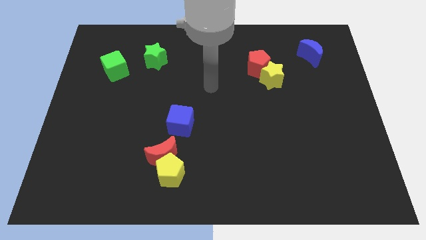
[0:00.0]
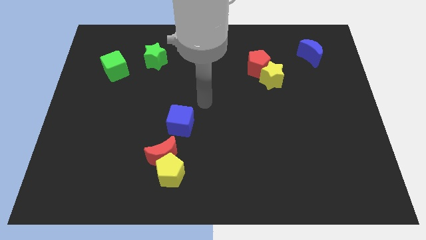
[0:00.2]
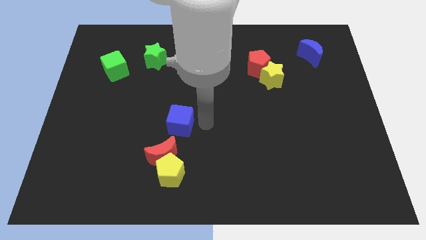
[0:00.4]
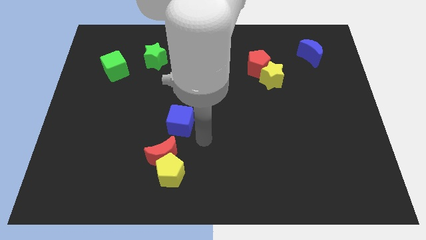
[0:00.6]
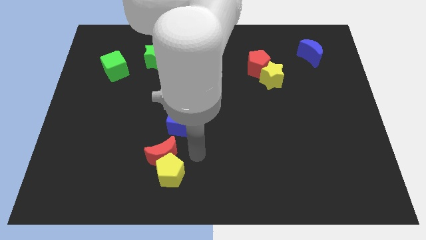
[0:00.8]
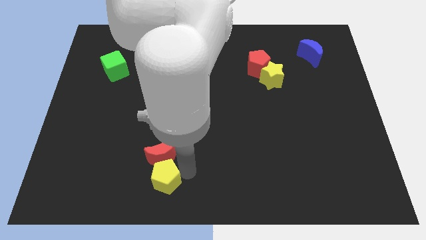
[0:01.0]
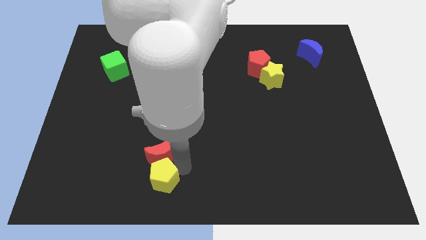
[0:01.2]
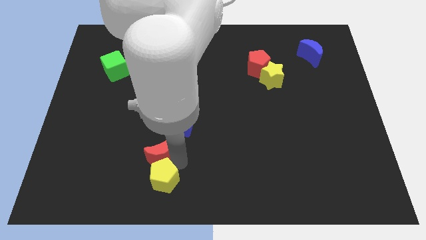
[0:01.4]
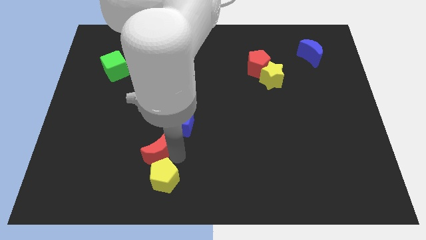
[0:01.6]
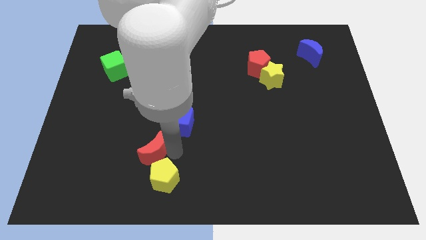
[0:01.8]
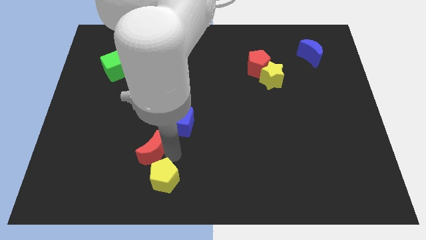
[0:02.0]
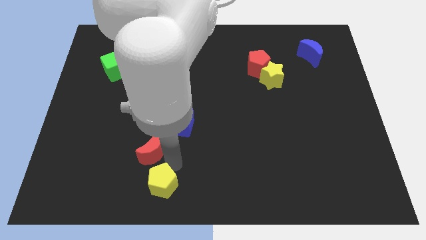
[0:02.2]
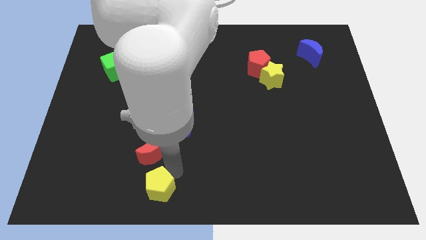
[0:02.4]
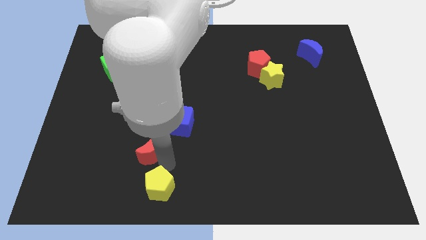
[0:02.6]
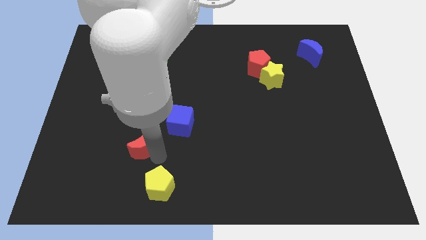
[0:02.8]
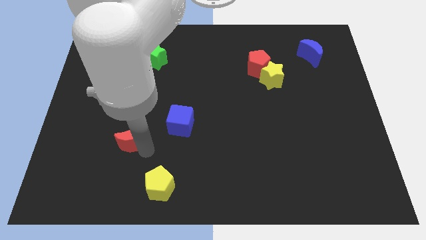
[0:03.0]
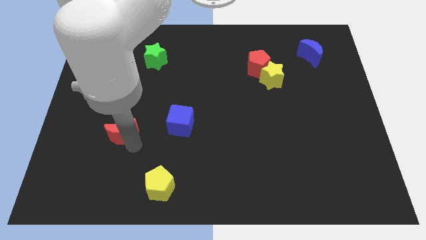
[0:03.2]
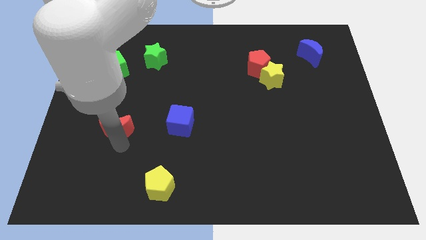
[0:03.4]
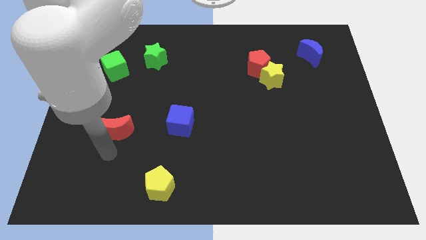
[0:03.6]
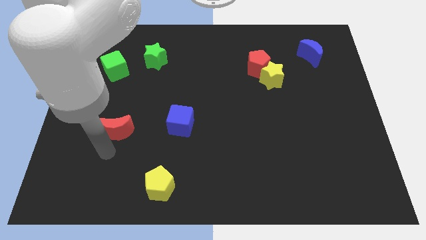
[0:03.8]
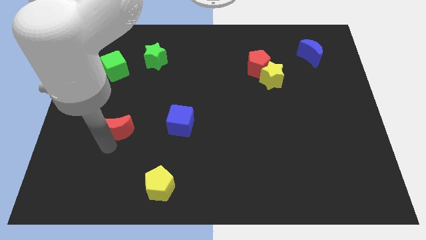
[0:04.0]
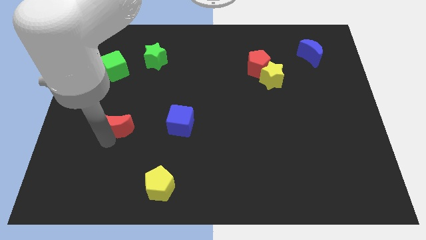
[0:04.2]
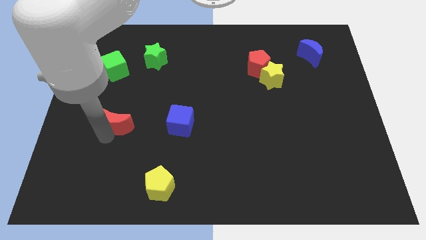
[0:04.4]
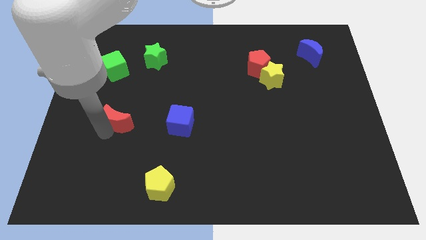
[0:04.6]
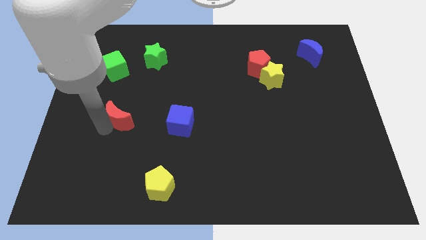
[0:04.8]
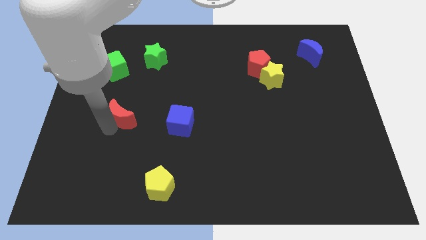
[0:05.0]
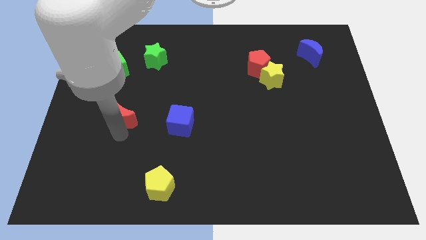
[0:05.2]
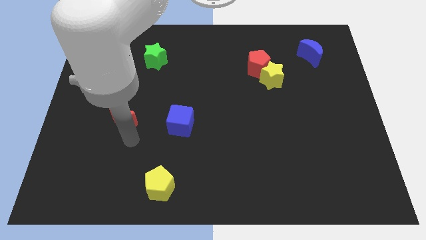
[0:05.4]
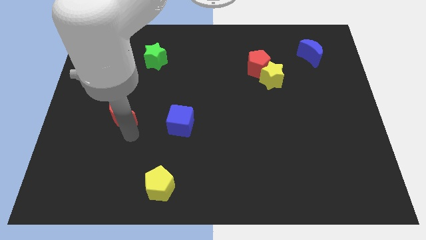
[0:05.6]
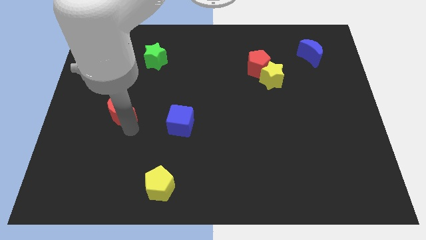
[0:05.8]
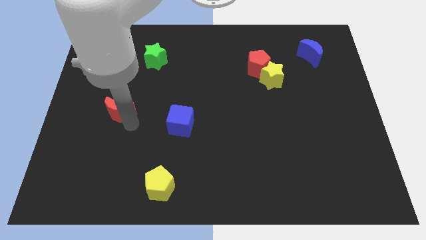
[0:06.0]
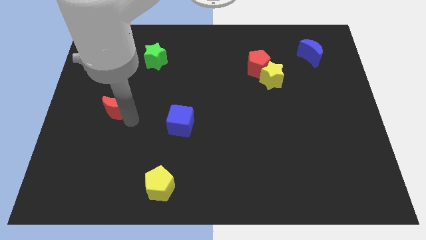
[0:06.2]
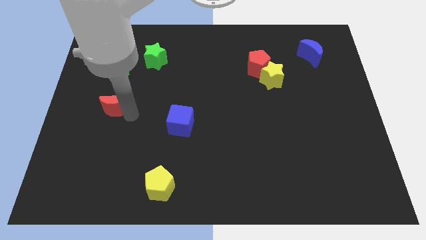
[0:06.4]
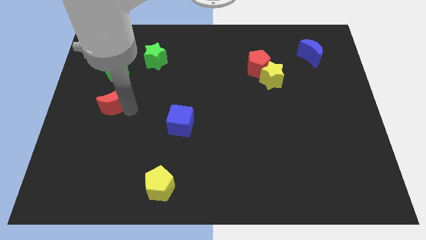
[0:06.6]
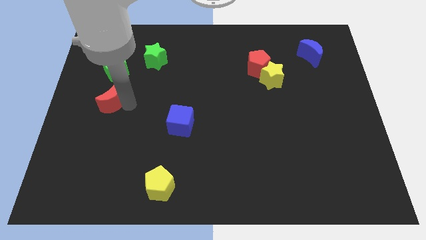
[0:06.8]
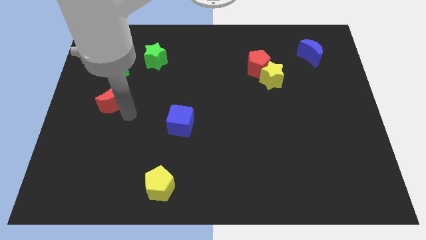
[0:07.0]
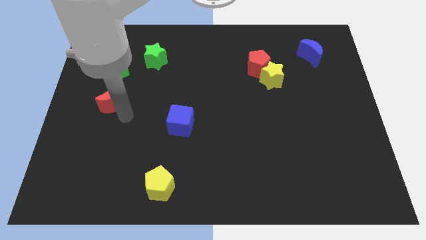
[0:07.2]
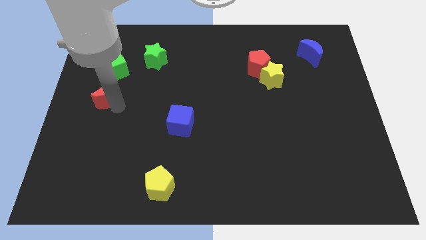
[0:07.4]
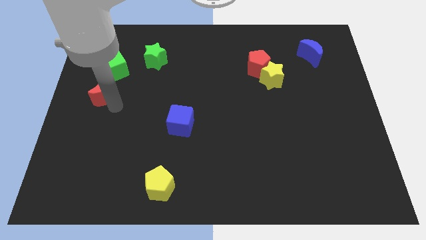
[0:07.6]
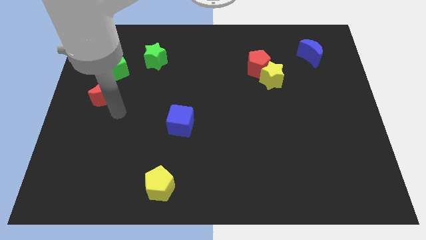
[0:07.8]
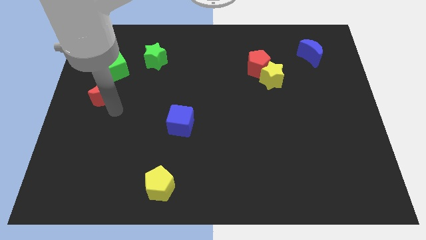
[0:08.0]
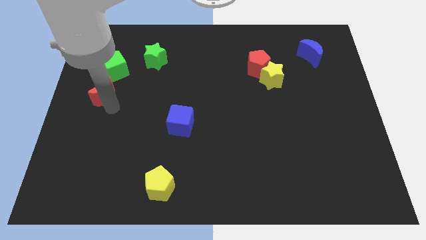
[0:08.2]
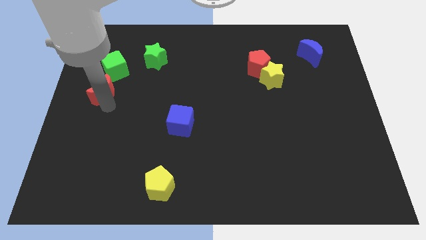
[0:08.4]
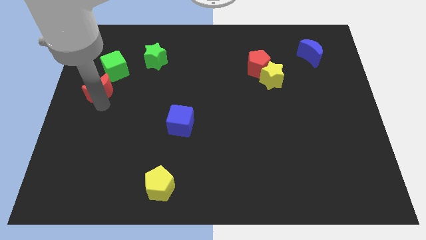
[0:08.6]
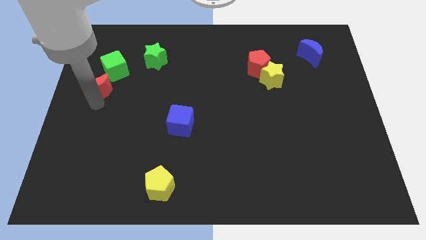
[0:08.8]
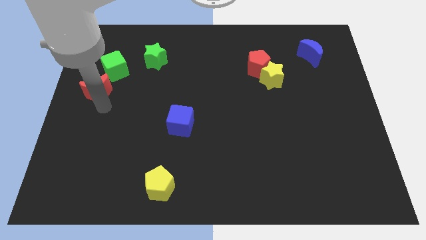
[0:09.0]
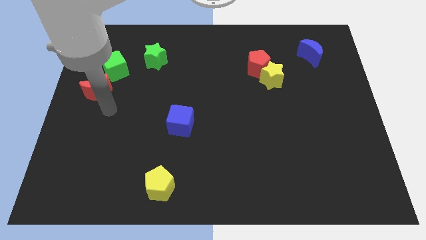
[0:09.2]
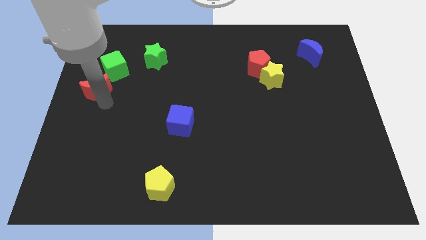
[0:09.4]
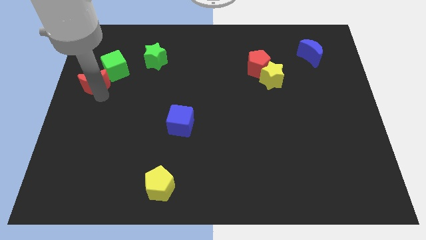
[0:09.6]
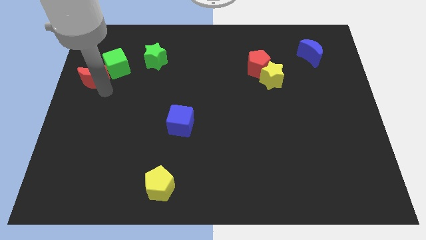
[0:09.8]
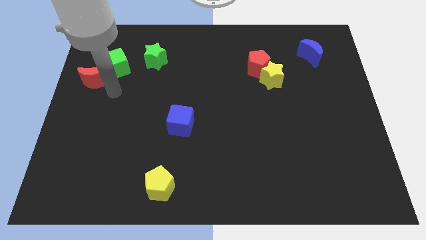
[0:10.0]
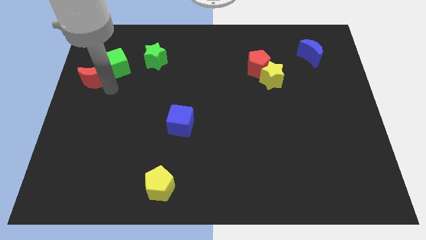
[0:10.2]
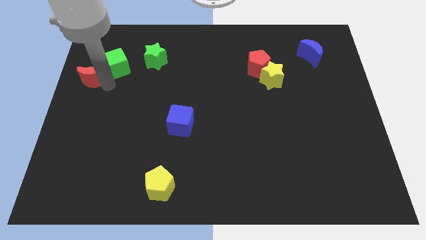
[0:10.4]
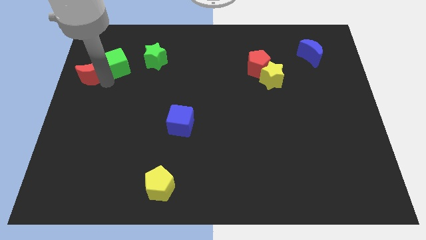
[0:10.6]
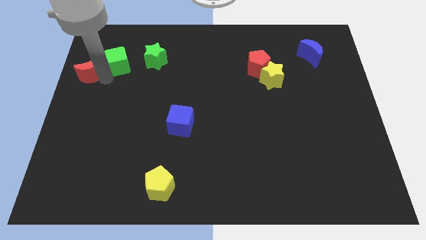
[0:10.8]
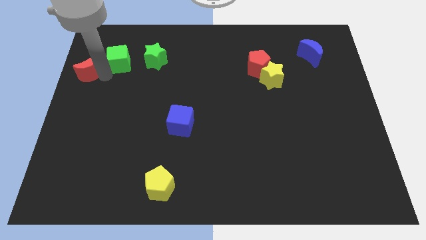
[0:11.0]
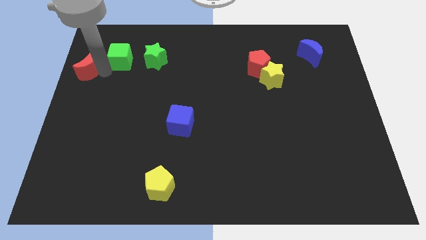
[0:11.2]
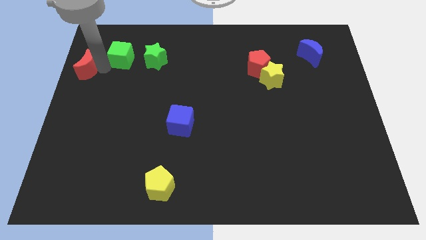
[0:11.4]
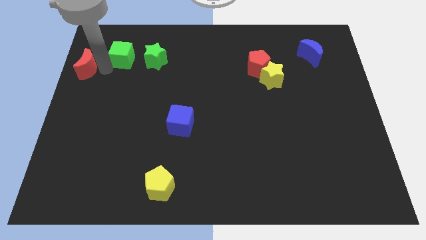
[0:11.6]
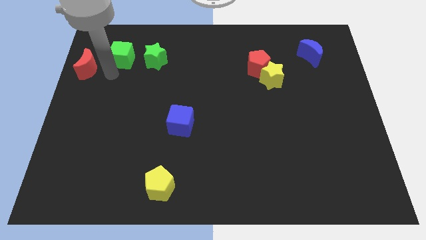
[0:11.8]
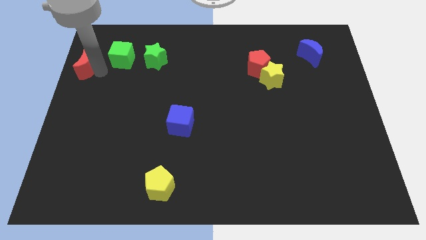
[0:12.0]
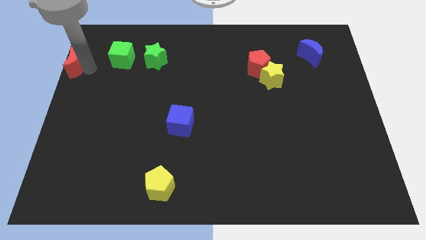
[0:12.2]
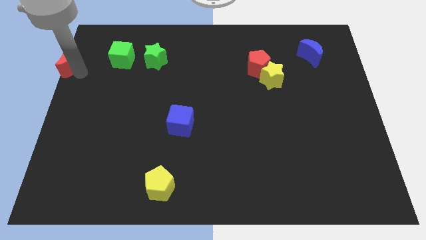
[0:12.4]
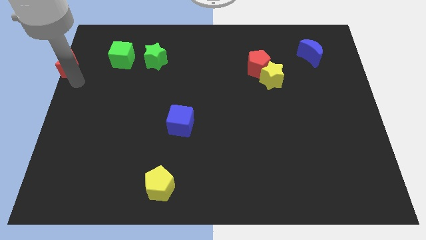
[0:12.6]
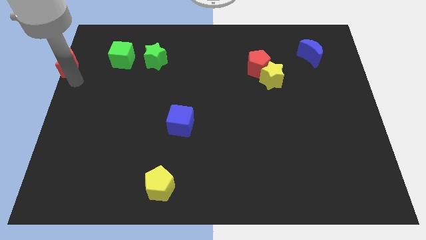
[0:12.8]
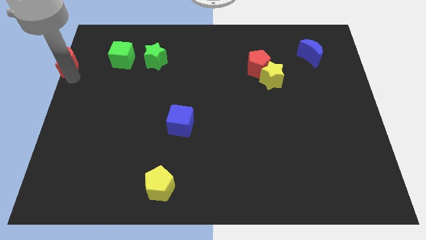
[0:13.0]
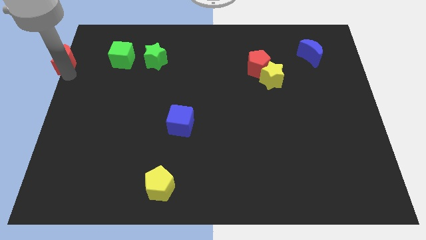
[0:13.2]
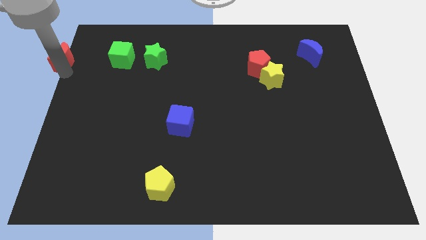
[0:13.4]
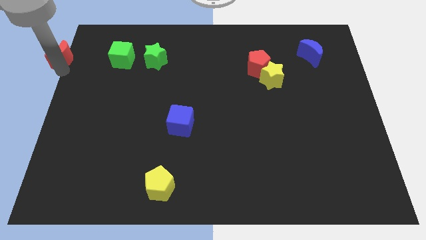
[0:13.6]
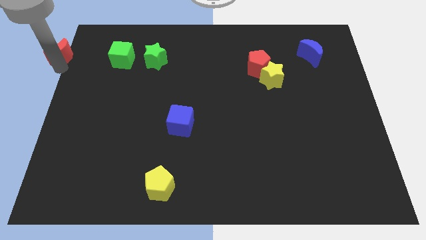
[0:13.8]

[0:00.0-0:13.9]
move the red moon to the top left corner
